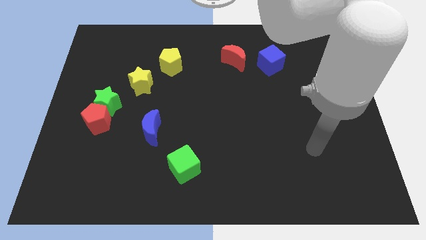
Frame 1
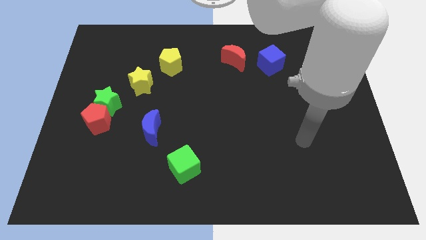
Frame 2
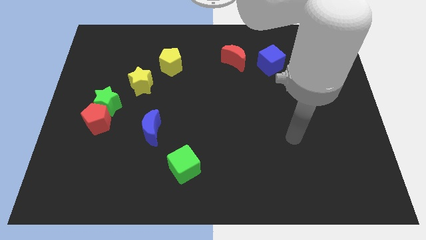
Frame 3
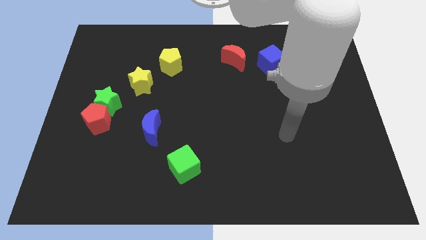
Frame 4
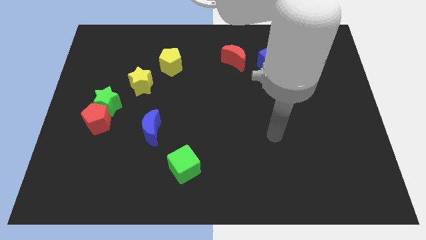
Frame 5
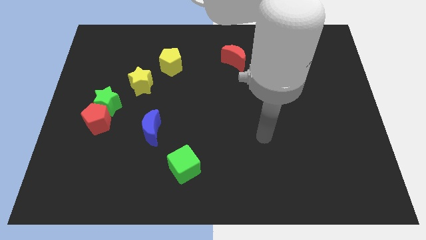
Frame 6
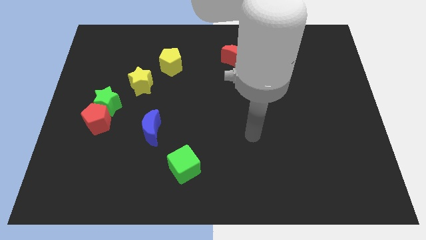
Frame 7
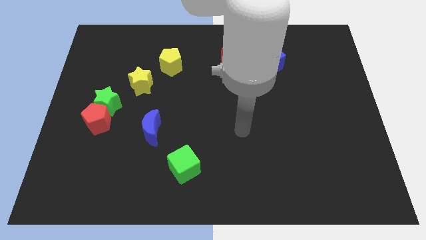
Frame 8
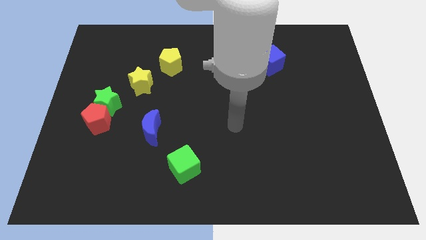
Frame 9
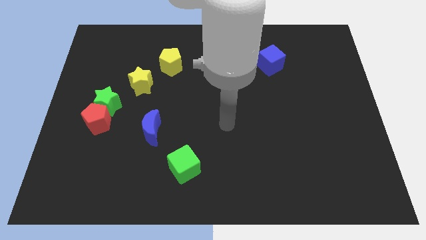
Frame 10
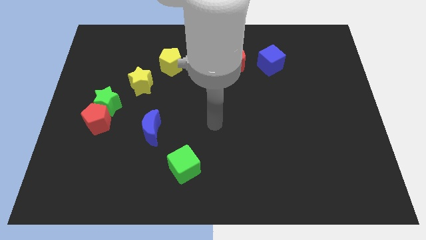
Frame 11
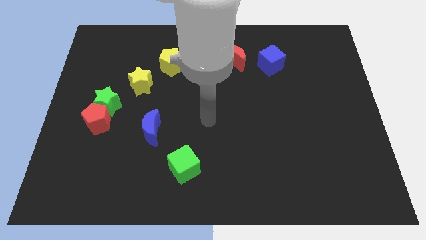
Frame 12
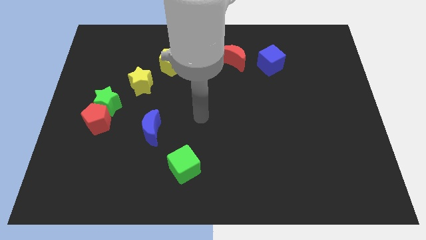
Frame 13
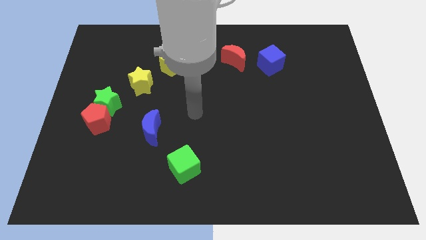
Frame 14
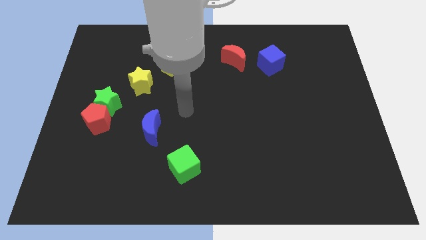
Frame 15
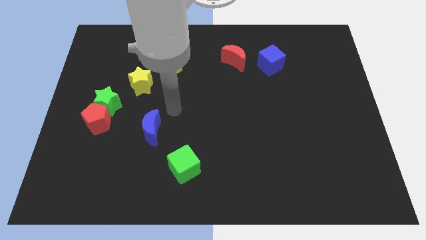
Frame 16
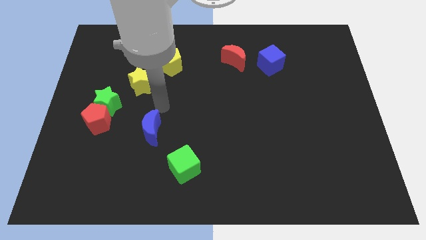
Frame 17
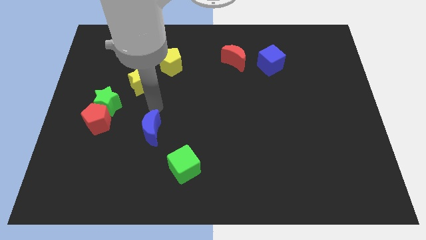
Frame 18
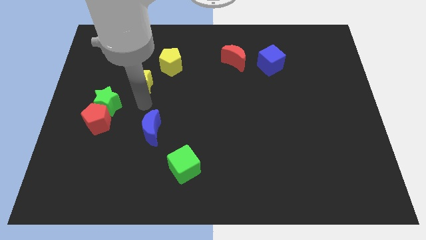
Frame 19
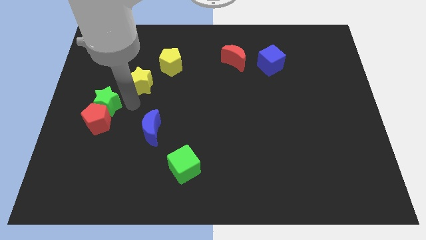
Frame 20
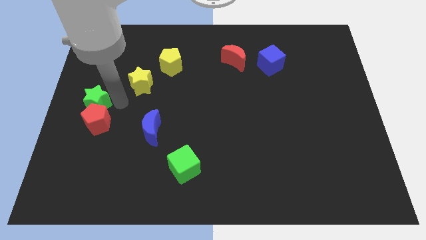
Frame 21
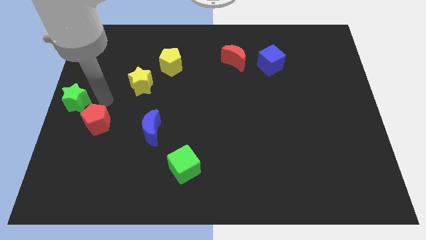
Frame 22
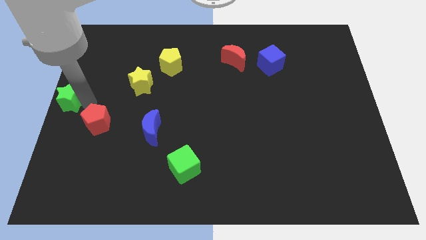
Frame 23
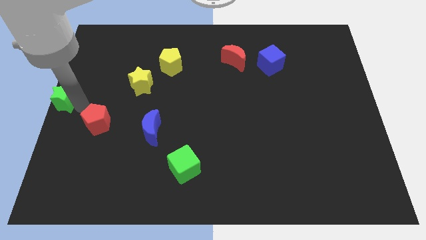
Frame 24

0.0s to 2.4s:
separate the red pentagon from the green star

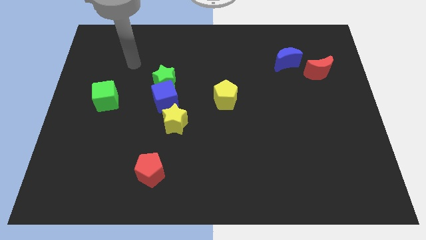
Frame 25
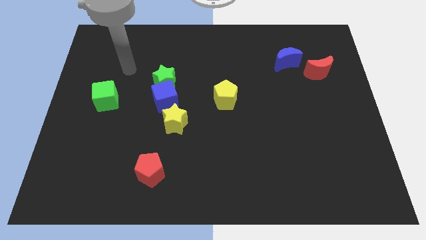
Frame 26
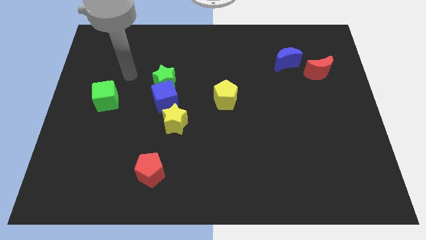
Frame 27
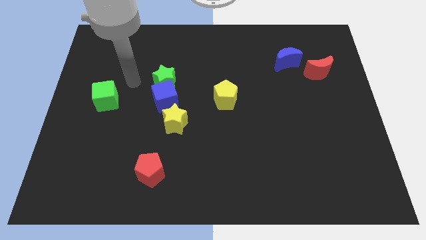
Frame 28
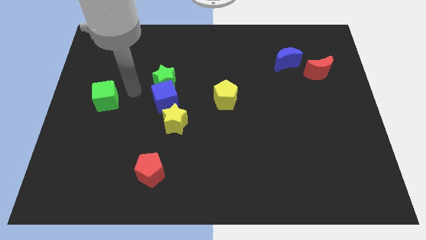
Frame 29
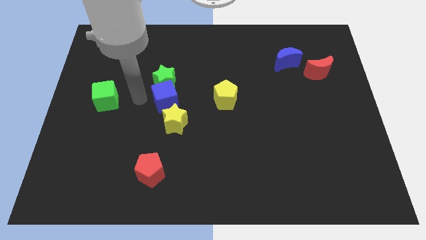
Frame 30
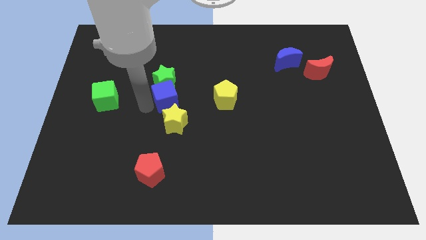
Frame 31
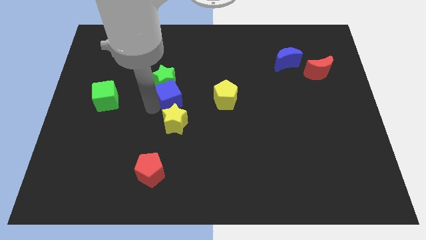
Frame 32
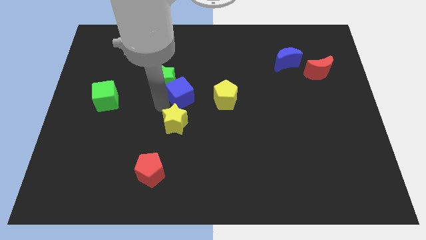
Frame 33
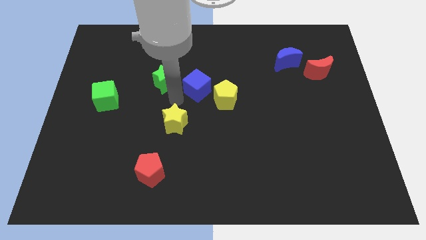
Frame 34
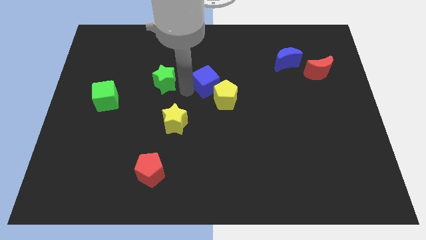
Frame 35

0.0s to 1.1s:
pull the green star apart from the blue cube

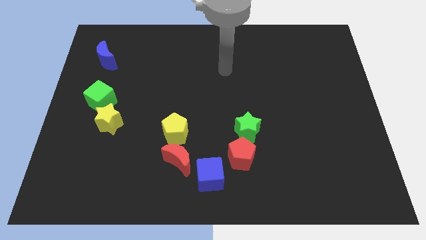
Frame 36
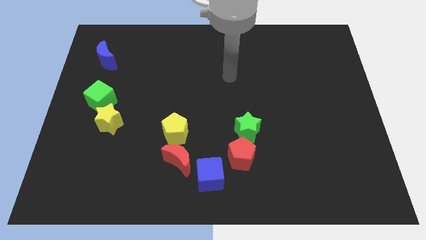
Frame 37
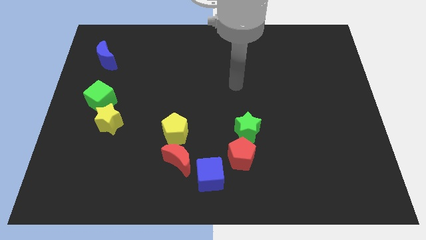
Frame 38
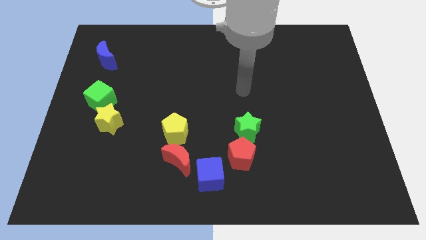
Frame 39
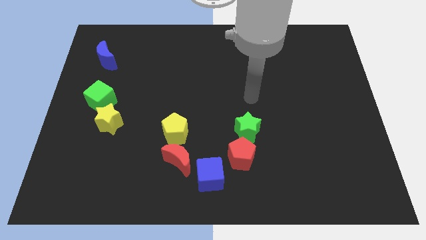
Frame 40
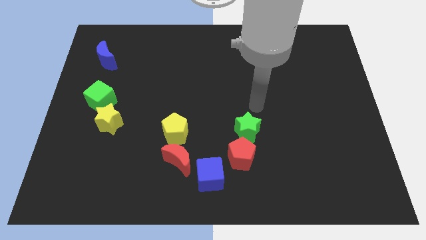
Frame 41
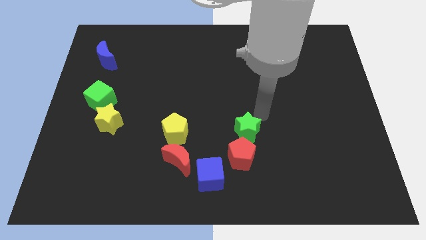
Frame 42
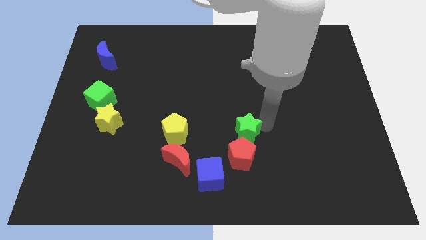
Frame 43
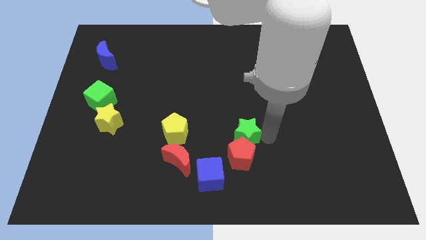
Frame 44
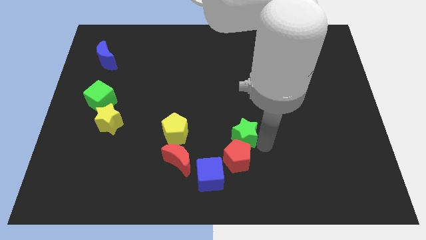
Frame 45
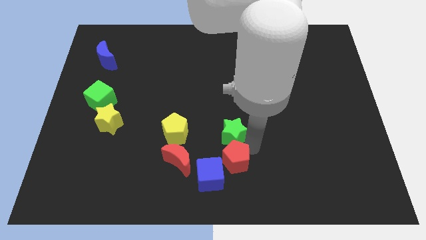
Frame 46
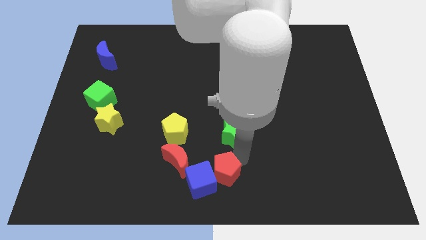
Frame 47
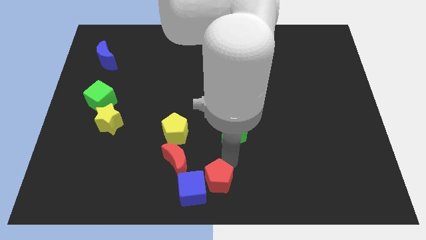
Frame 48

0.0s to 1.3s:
pull the green star apart from the red pentagon

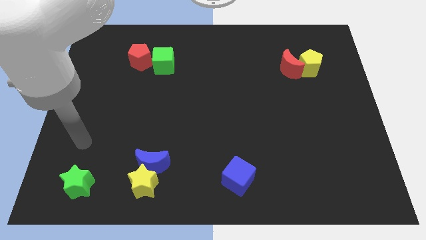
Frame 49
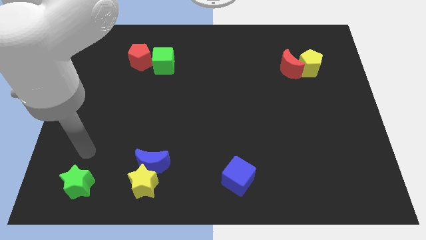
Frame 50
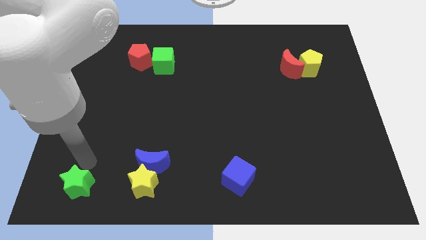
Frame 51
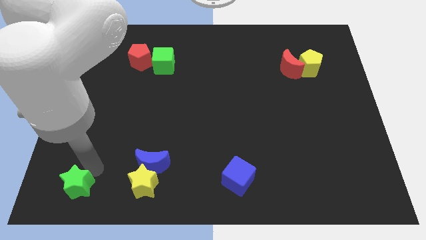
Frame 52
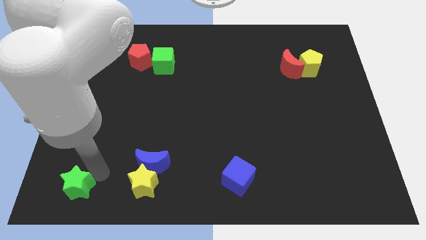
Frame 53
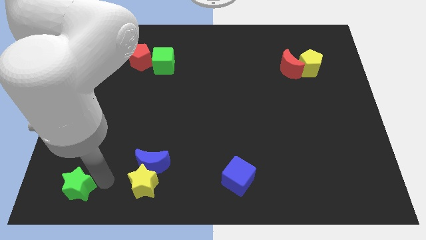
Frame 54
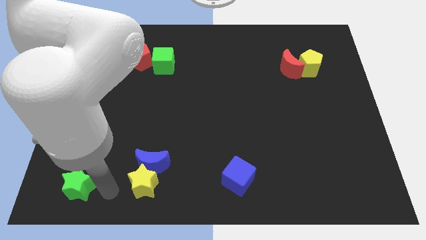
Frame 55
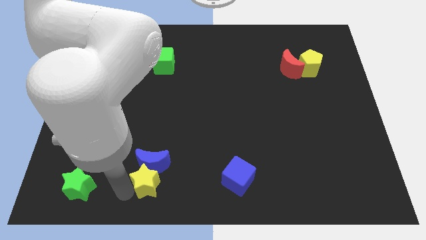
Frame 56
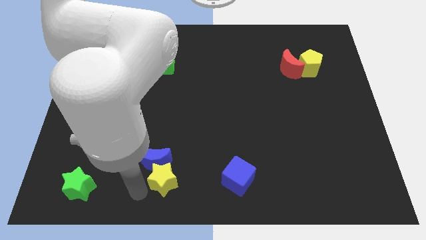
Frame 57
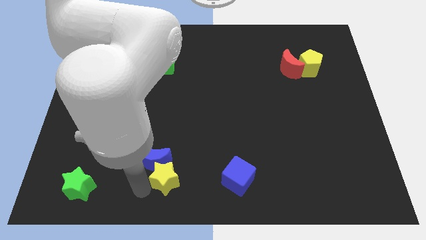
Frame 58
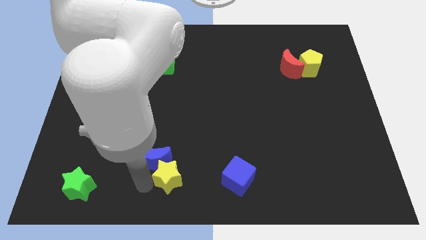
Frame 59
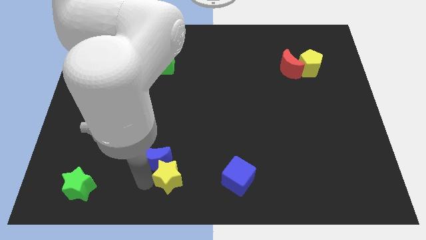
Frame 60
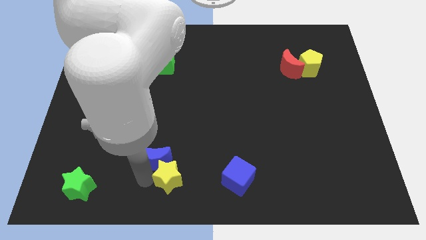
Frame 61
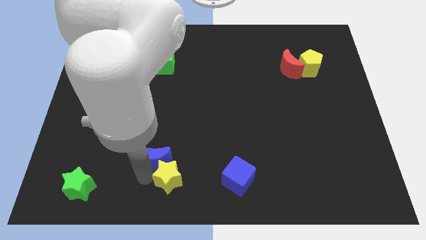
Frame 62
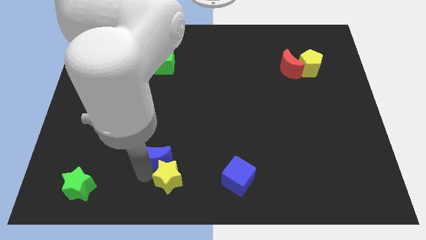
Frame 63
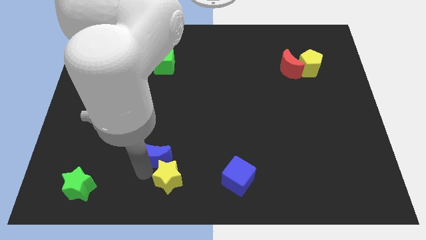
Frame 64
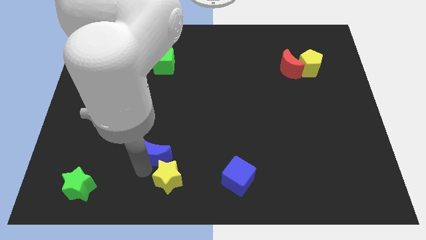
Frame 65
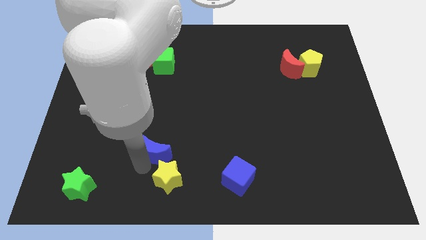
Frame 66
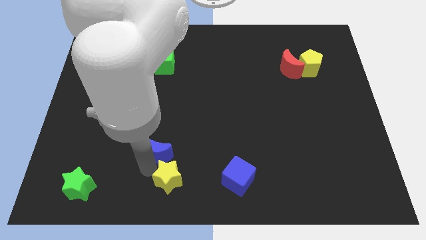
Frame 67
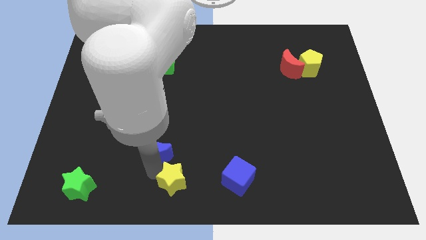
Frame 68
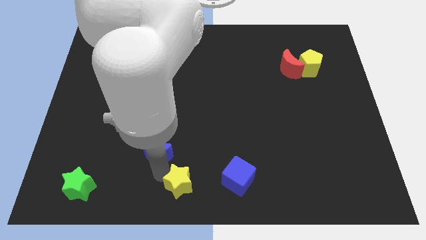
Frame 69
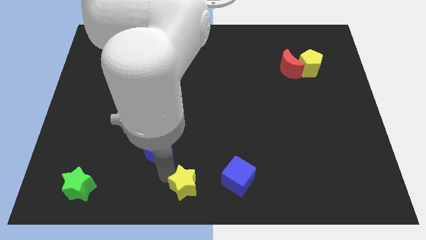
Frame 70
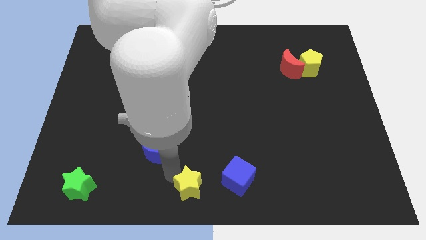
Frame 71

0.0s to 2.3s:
move the blue moon away from the yellow star

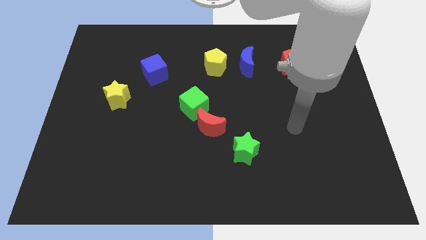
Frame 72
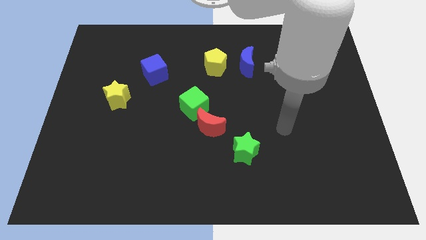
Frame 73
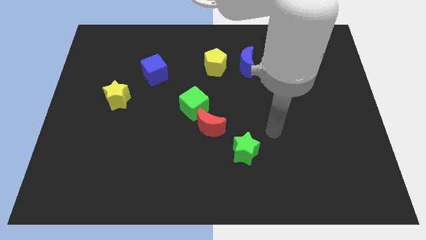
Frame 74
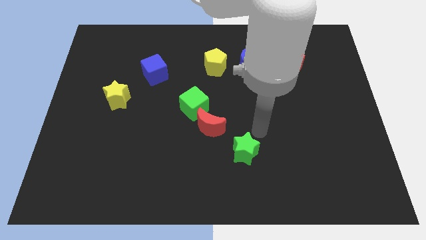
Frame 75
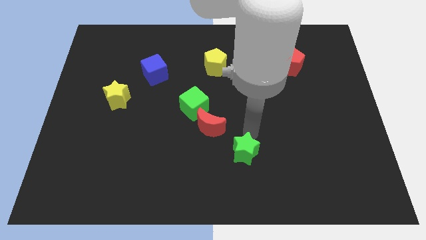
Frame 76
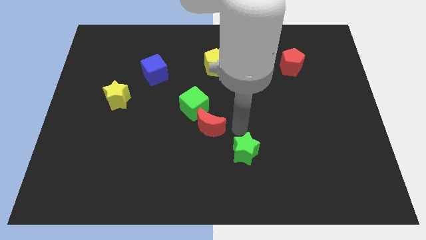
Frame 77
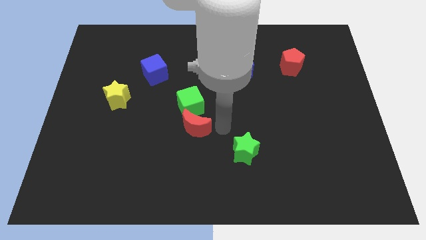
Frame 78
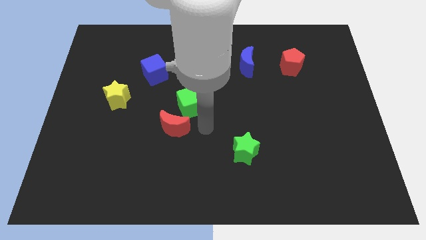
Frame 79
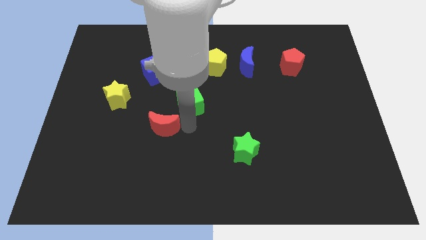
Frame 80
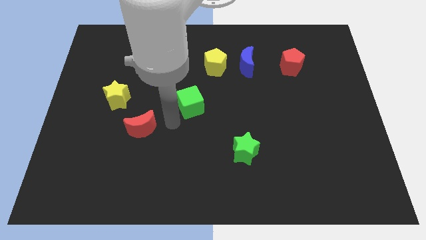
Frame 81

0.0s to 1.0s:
separate the green cube from the red moon

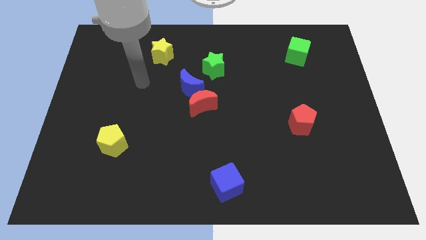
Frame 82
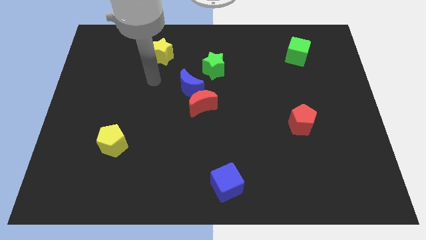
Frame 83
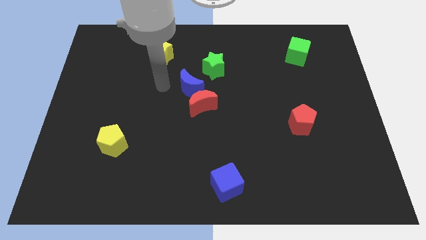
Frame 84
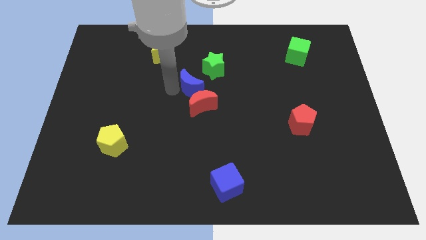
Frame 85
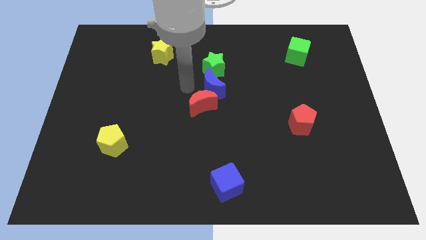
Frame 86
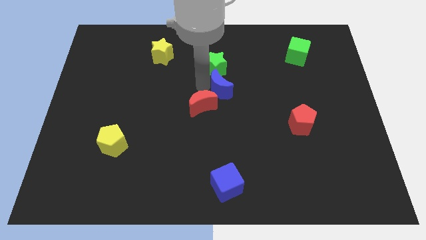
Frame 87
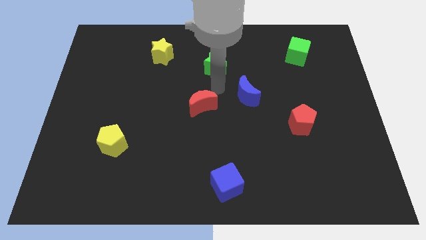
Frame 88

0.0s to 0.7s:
move the red moon away from the blue moon

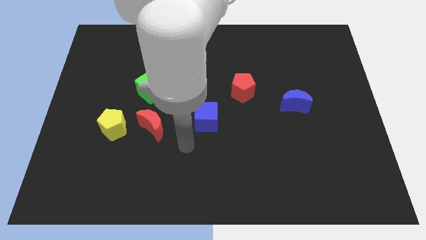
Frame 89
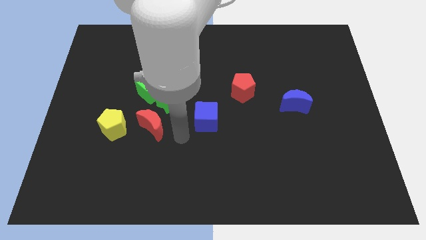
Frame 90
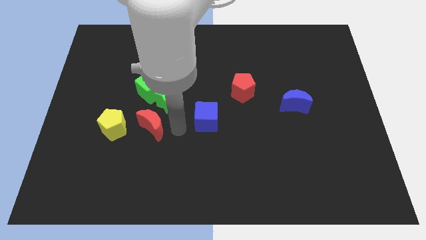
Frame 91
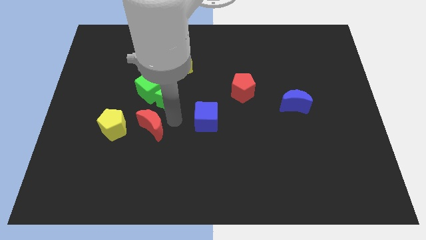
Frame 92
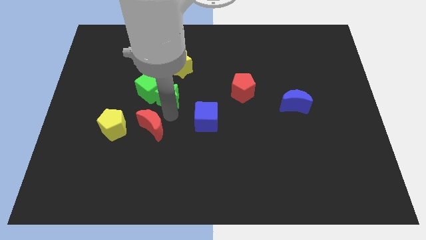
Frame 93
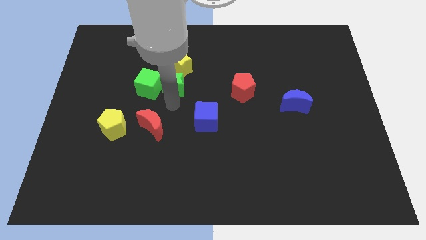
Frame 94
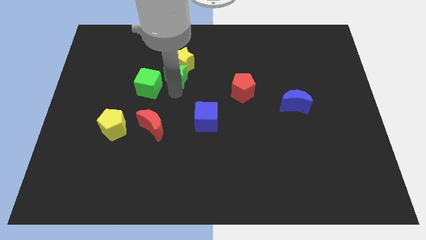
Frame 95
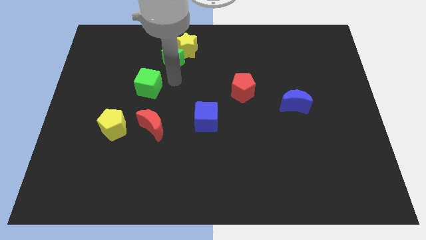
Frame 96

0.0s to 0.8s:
move the green cube away from the green star
